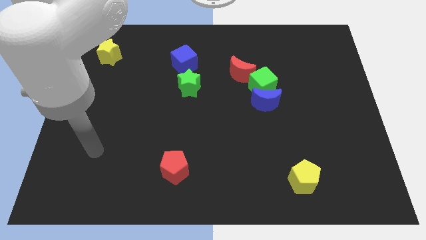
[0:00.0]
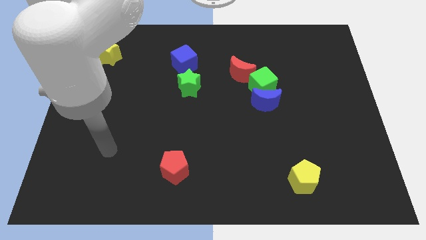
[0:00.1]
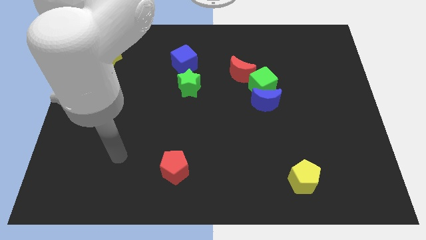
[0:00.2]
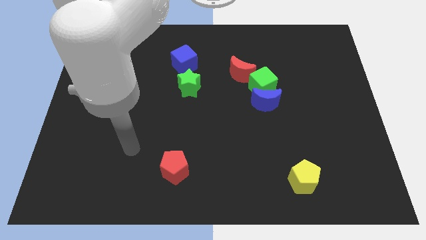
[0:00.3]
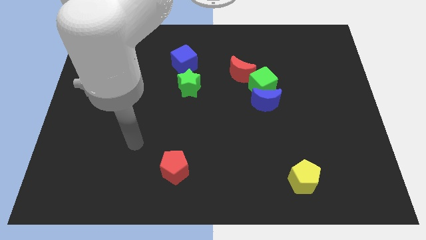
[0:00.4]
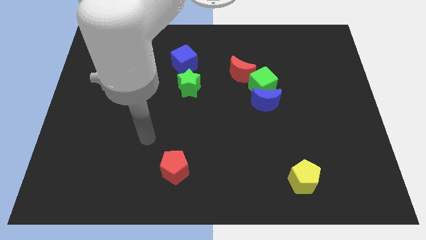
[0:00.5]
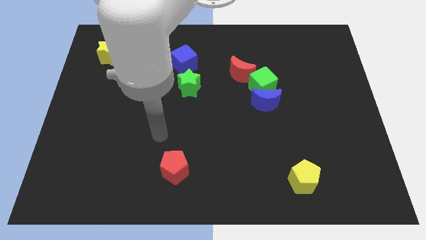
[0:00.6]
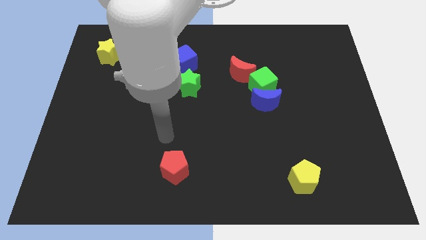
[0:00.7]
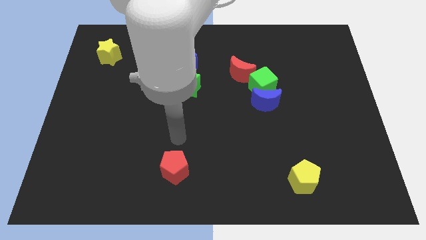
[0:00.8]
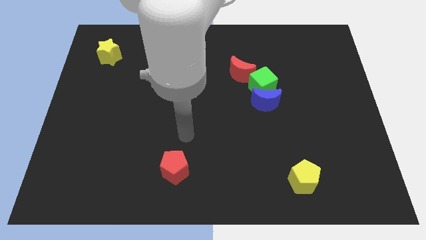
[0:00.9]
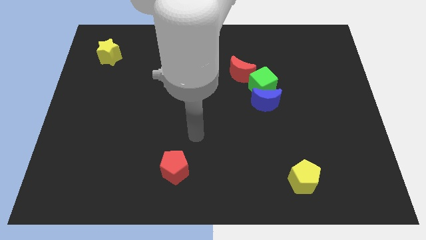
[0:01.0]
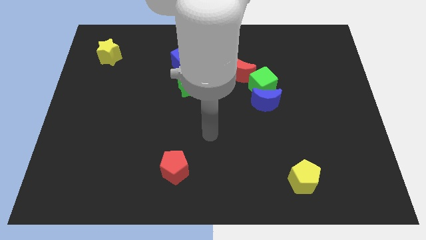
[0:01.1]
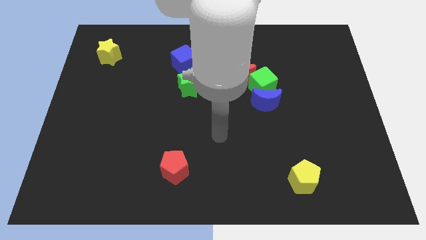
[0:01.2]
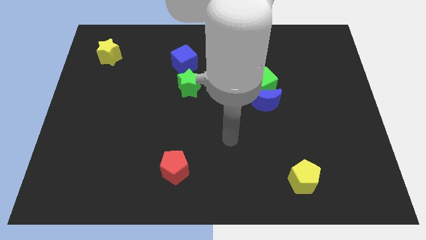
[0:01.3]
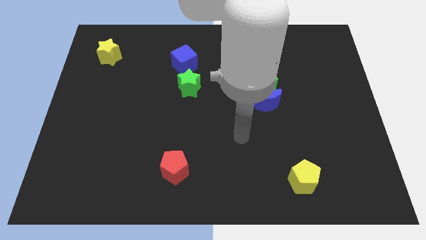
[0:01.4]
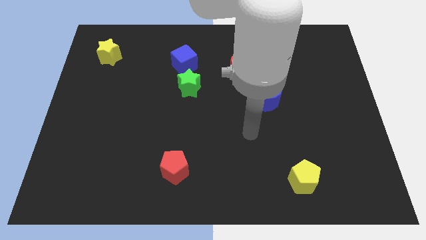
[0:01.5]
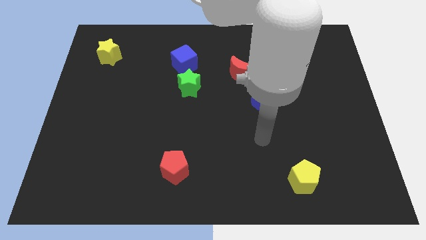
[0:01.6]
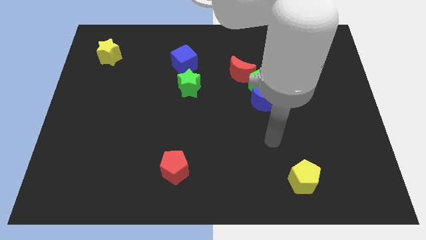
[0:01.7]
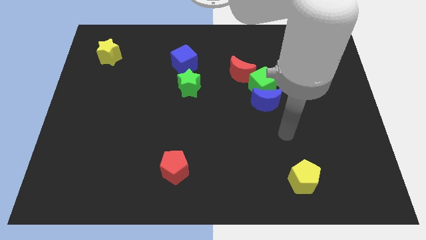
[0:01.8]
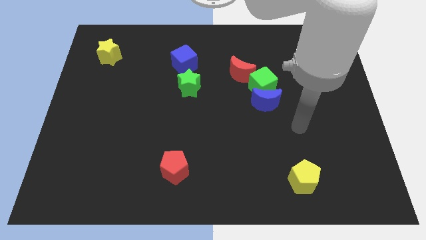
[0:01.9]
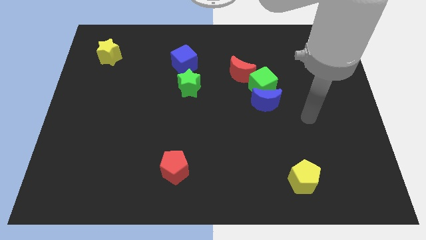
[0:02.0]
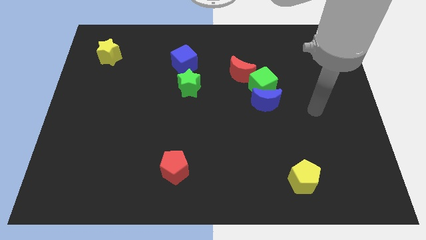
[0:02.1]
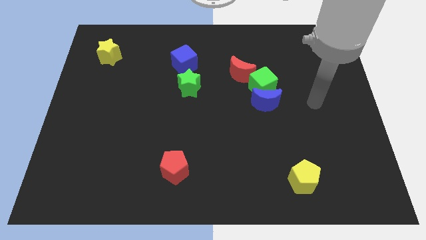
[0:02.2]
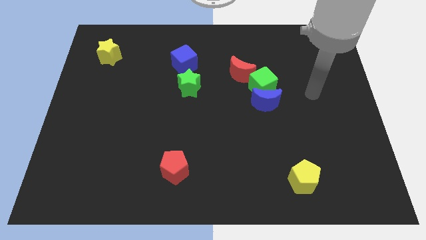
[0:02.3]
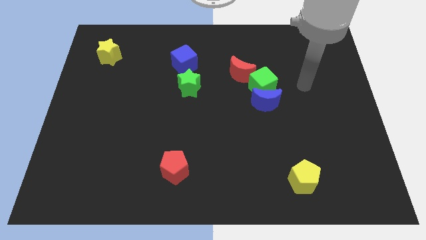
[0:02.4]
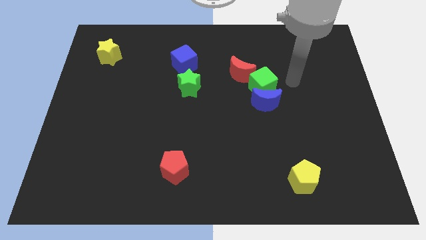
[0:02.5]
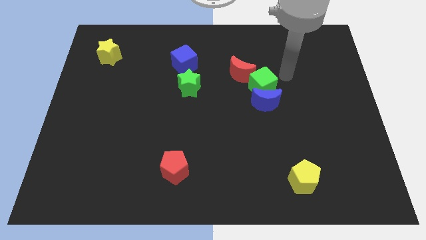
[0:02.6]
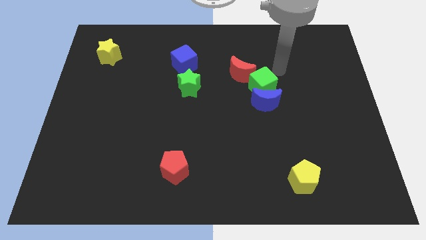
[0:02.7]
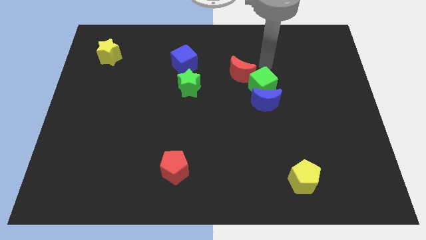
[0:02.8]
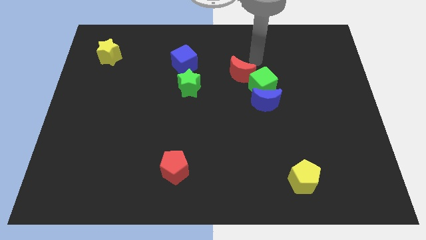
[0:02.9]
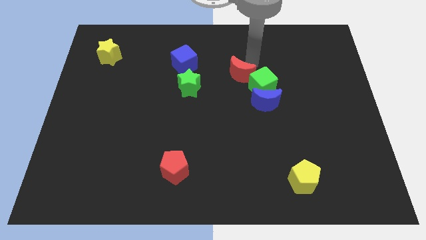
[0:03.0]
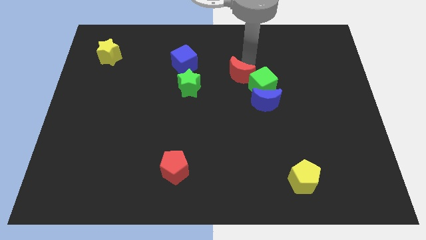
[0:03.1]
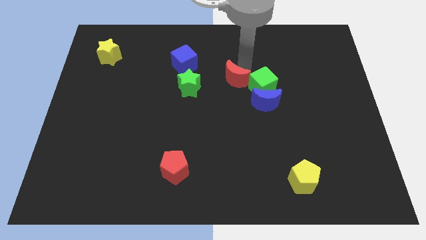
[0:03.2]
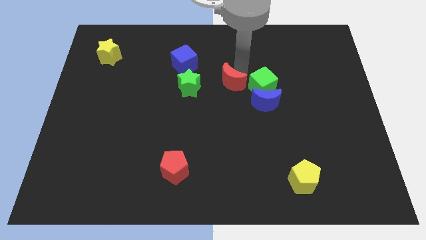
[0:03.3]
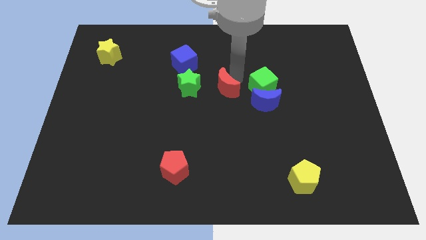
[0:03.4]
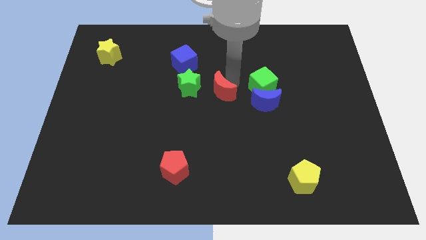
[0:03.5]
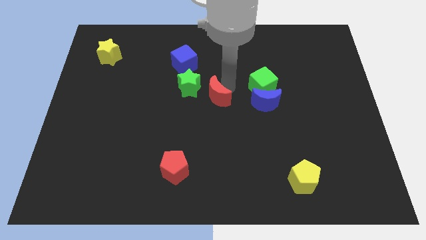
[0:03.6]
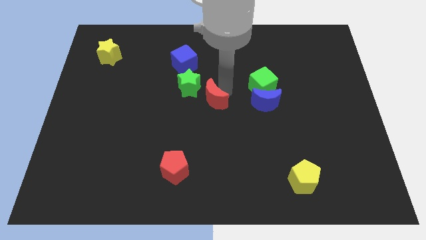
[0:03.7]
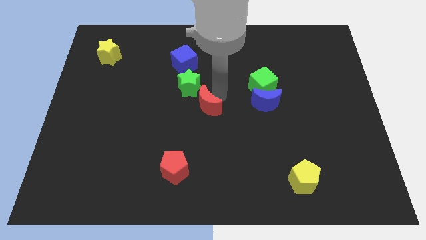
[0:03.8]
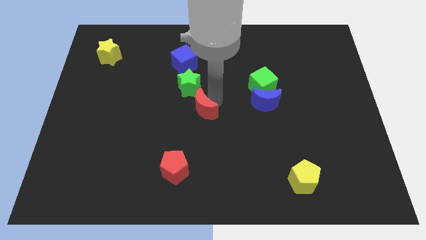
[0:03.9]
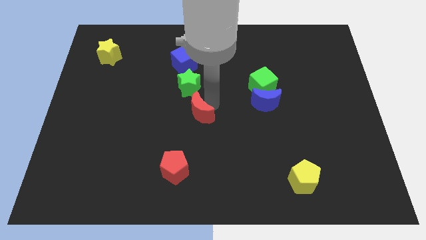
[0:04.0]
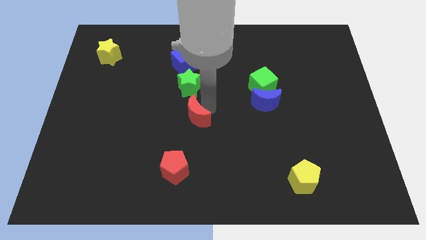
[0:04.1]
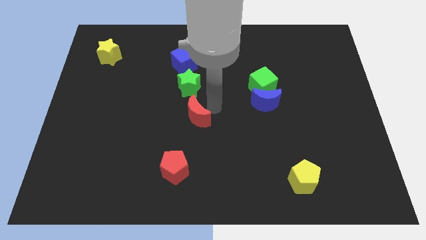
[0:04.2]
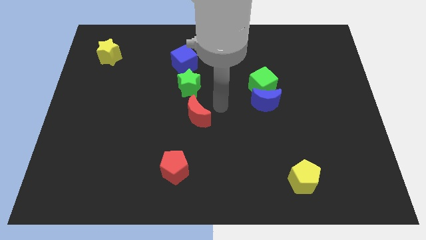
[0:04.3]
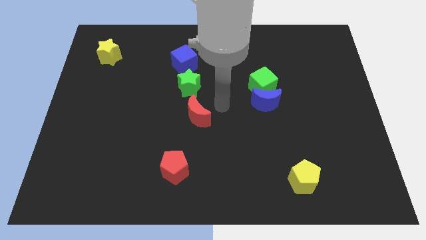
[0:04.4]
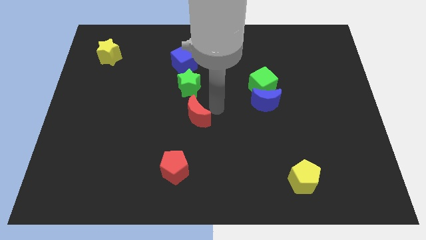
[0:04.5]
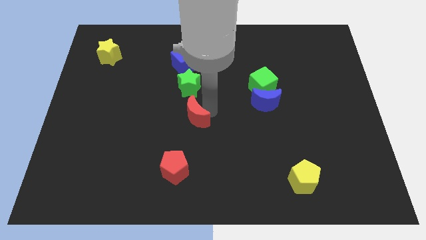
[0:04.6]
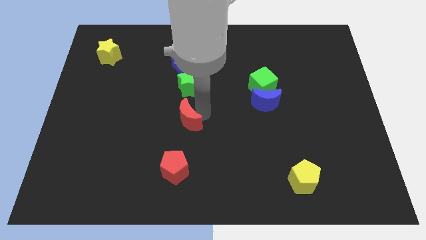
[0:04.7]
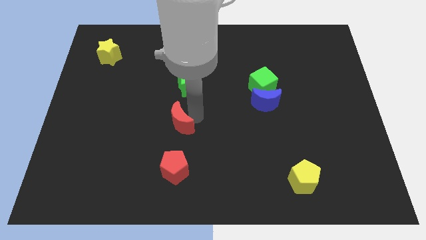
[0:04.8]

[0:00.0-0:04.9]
push the red moon down and left diagonally

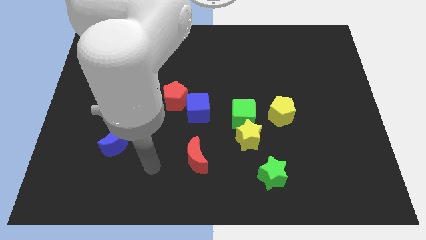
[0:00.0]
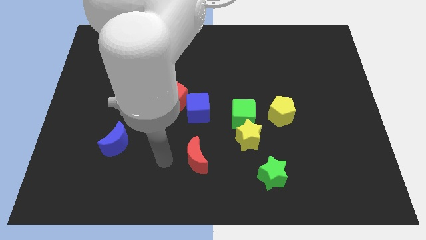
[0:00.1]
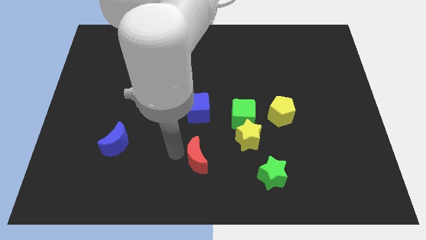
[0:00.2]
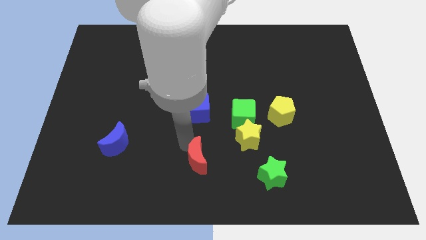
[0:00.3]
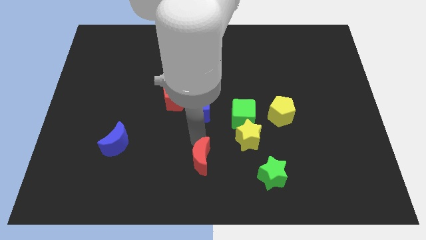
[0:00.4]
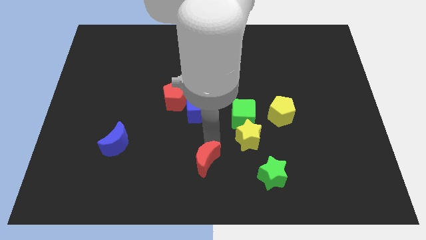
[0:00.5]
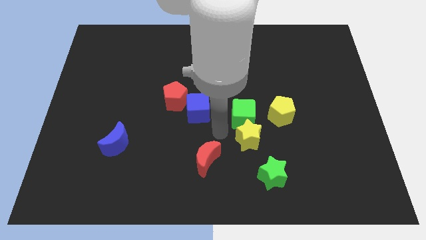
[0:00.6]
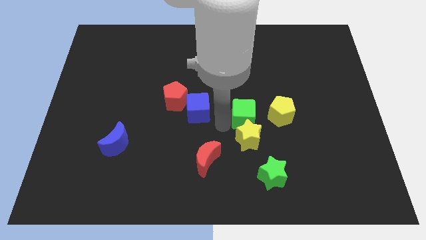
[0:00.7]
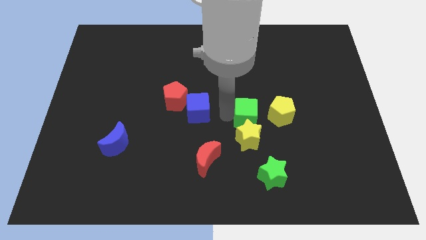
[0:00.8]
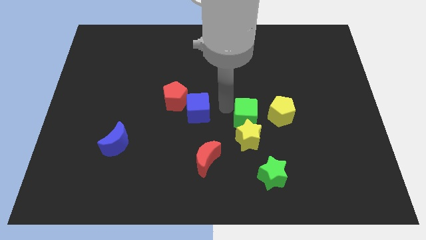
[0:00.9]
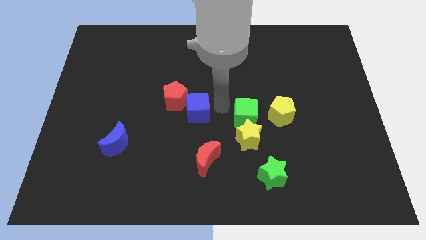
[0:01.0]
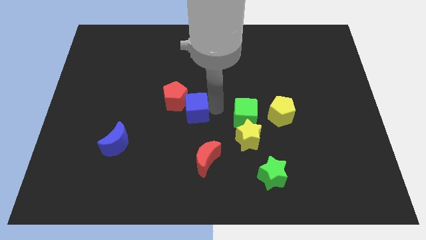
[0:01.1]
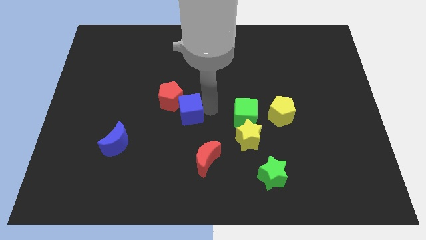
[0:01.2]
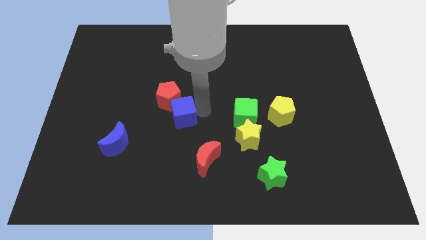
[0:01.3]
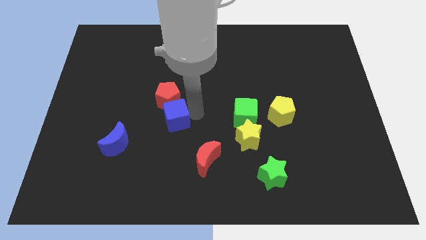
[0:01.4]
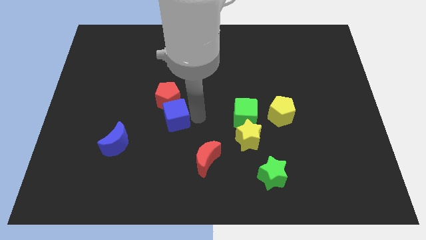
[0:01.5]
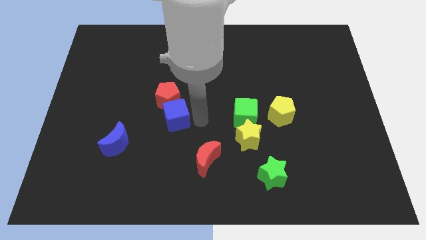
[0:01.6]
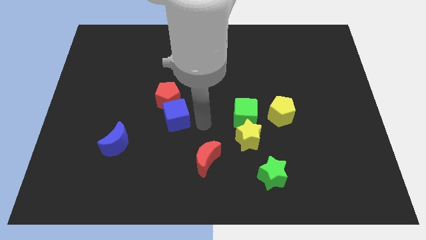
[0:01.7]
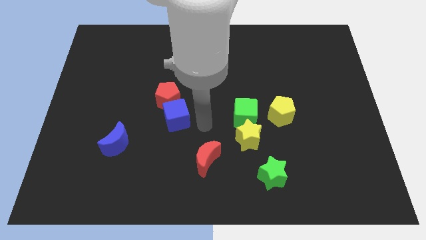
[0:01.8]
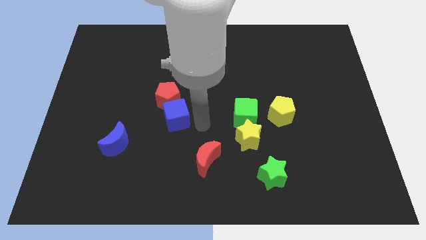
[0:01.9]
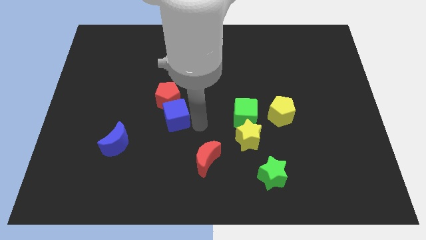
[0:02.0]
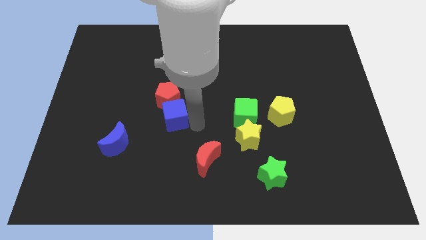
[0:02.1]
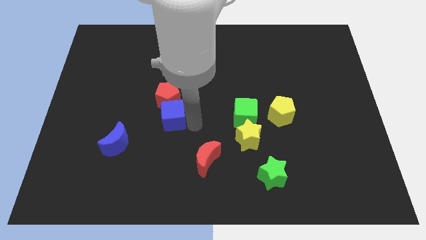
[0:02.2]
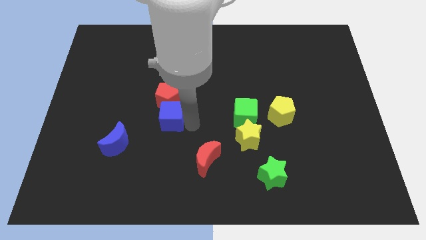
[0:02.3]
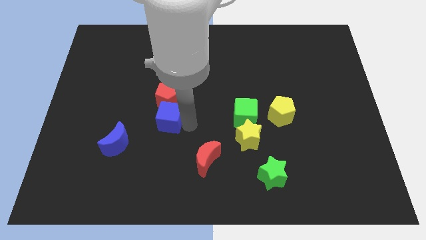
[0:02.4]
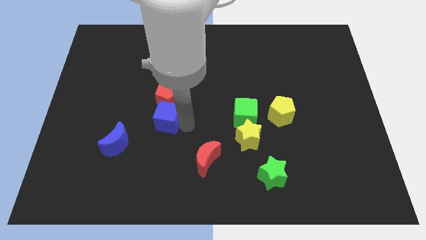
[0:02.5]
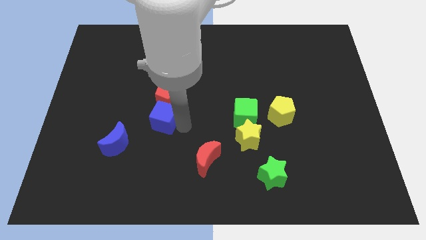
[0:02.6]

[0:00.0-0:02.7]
slightly move the blue cube to the left

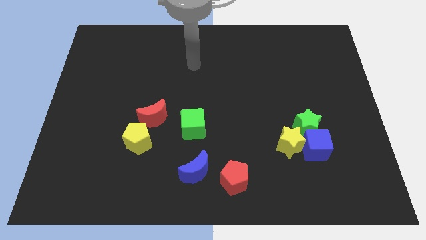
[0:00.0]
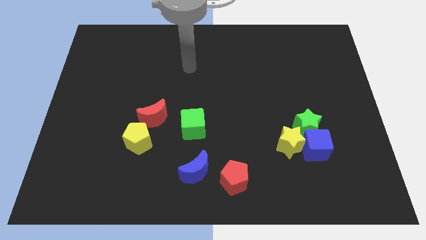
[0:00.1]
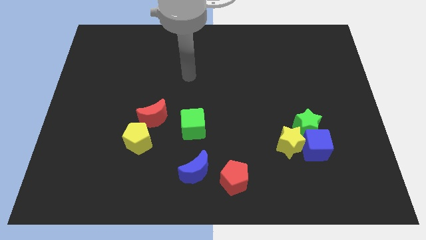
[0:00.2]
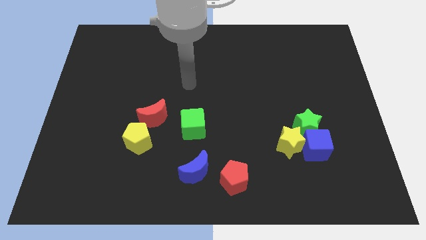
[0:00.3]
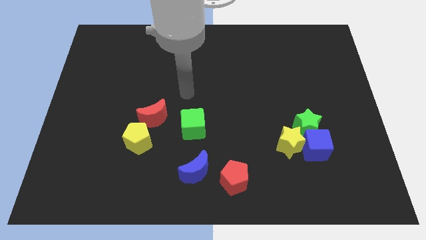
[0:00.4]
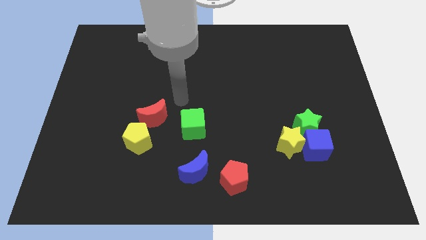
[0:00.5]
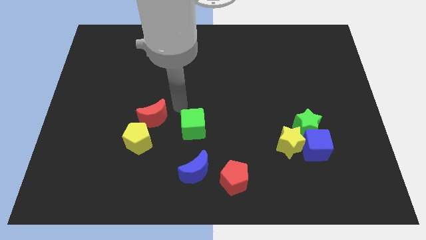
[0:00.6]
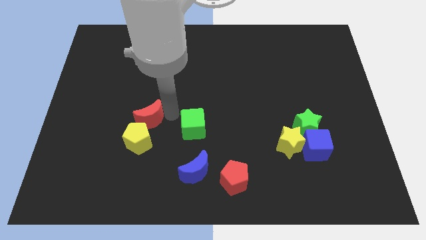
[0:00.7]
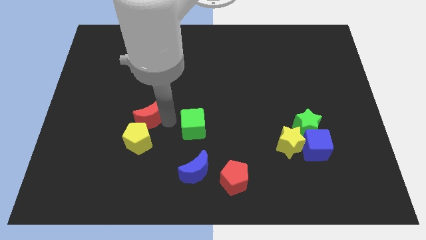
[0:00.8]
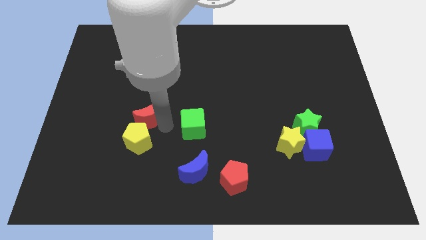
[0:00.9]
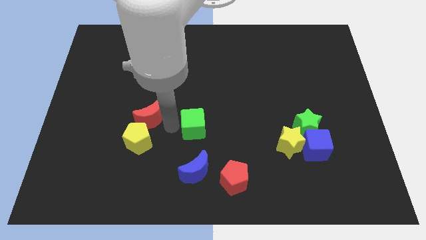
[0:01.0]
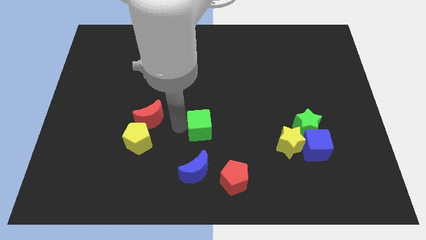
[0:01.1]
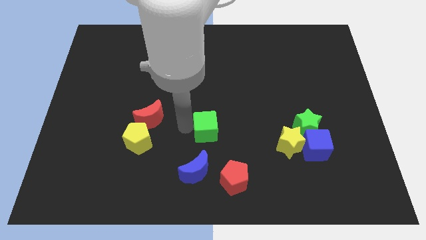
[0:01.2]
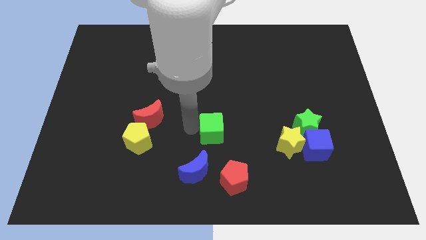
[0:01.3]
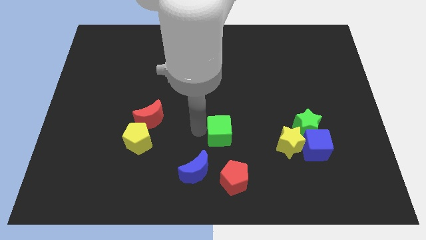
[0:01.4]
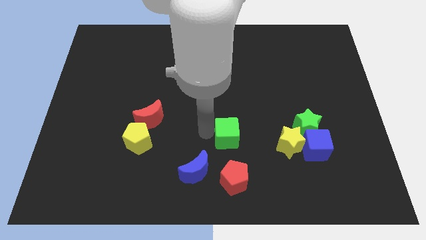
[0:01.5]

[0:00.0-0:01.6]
move the green cube right somewhat
